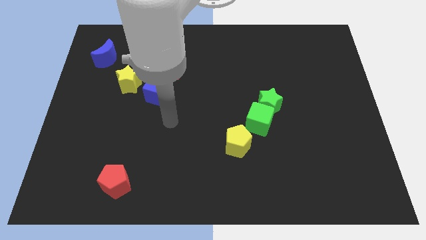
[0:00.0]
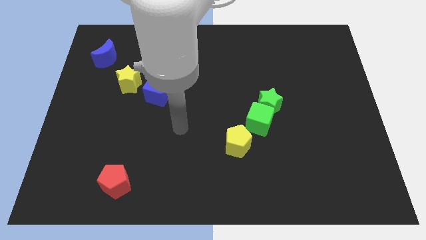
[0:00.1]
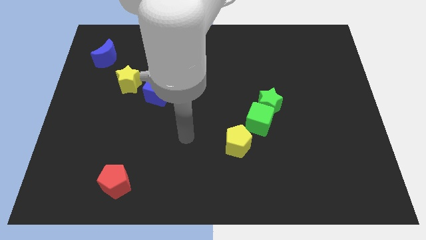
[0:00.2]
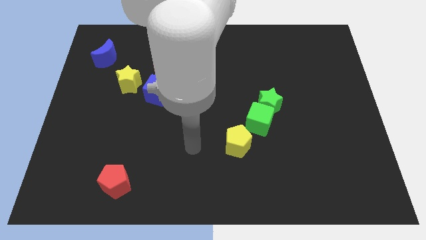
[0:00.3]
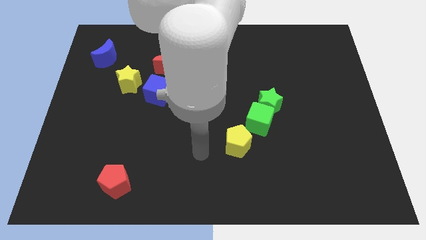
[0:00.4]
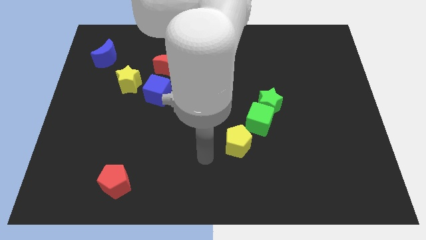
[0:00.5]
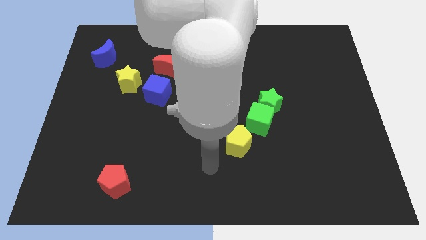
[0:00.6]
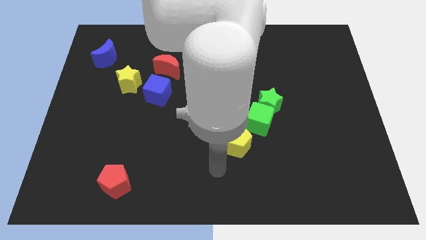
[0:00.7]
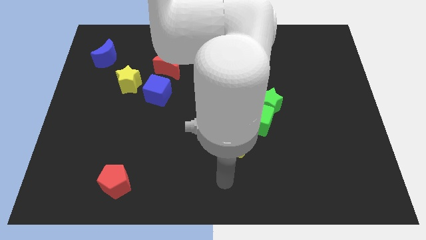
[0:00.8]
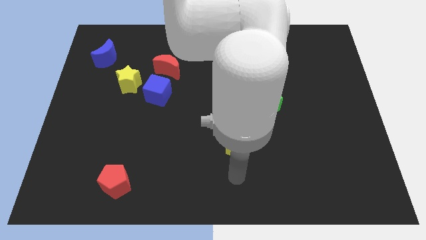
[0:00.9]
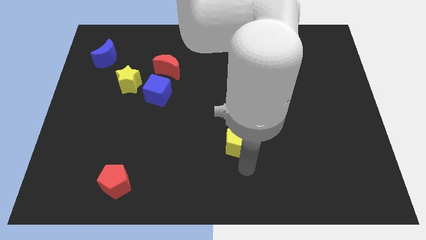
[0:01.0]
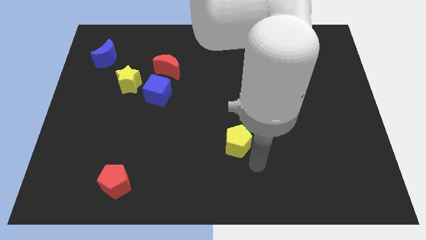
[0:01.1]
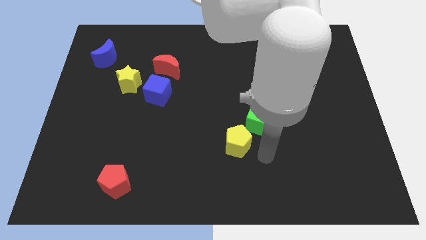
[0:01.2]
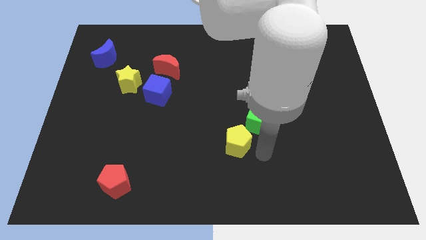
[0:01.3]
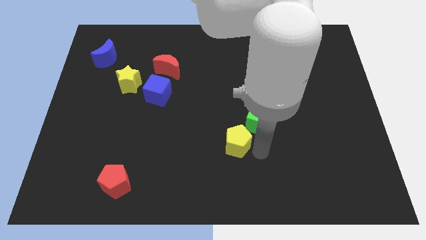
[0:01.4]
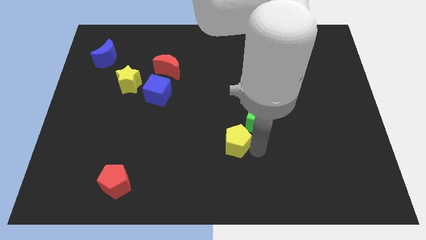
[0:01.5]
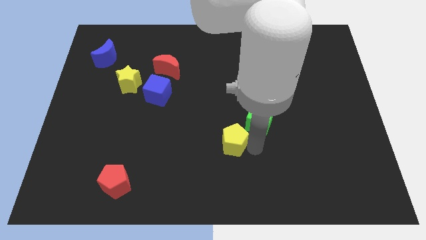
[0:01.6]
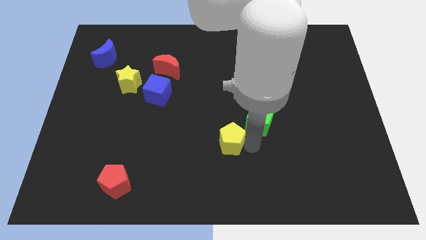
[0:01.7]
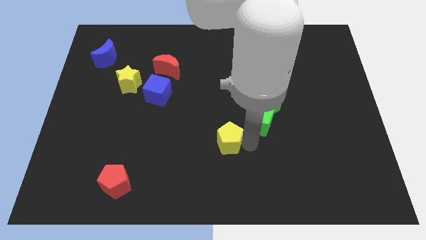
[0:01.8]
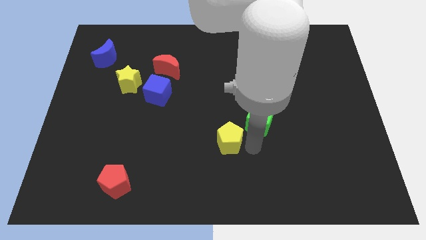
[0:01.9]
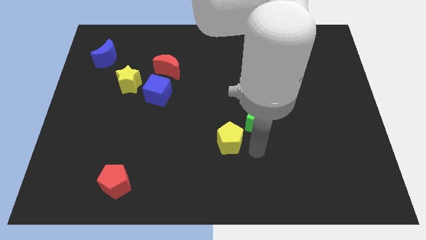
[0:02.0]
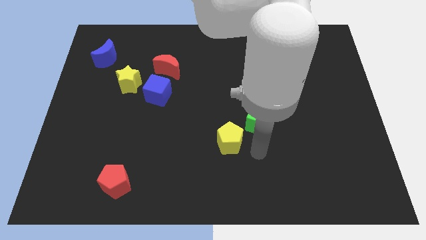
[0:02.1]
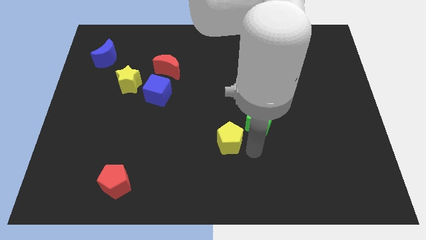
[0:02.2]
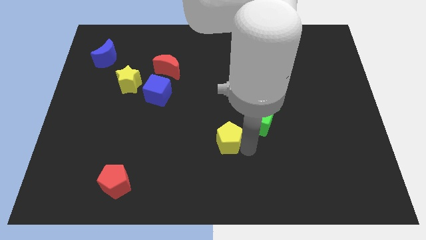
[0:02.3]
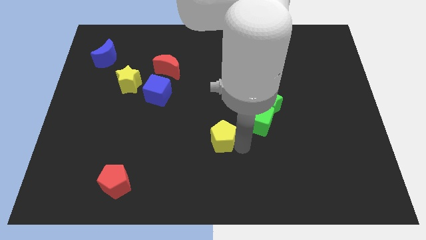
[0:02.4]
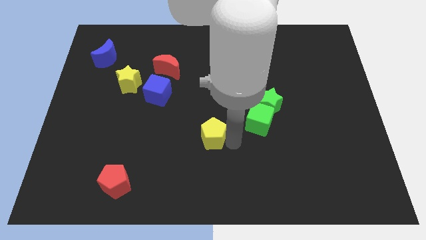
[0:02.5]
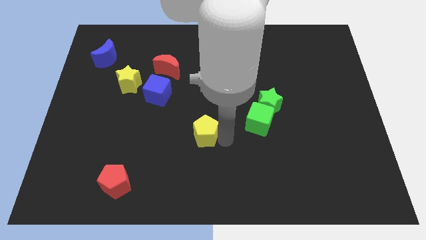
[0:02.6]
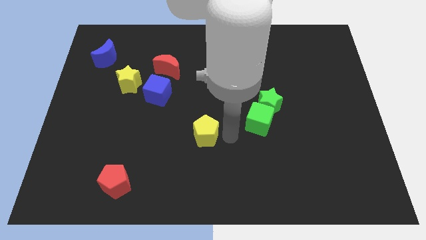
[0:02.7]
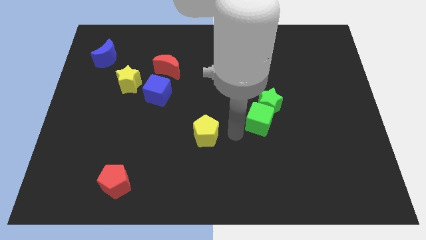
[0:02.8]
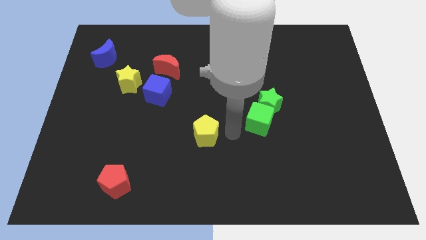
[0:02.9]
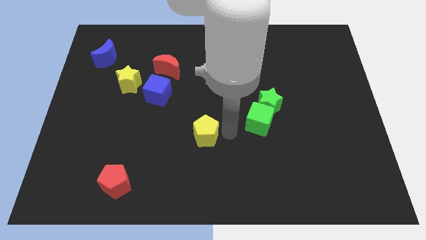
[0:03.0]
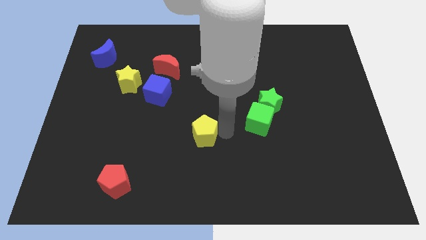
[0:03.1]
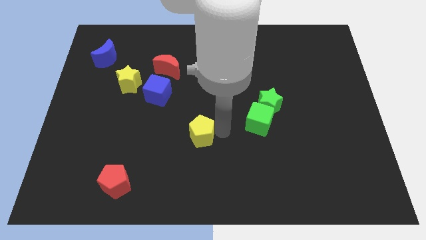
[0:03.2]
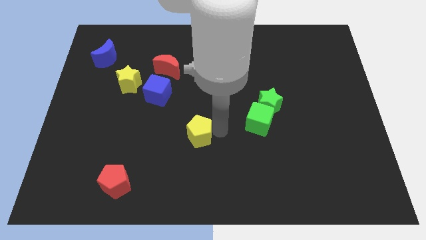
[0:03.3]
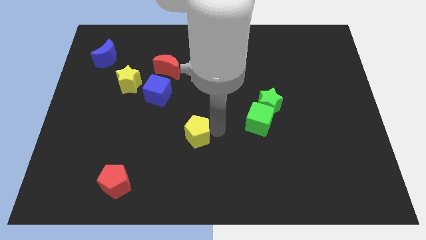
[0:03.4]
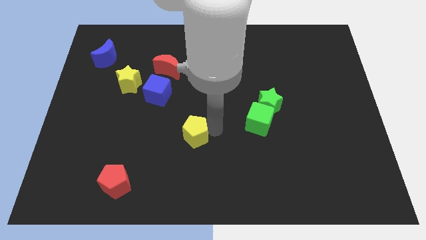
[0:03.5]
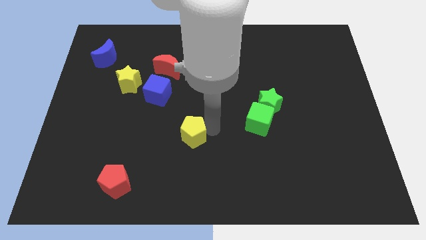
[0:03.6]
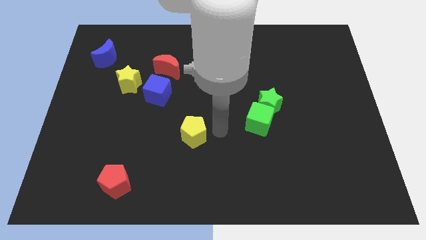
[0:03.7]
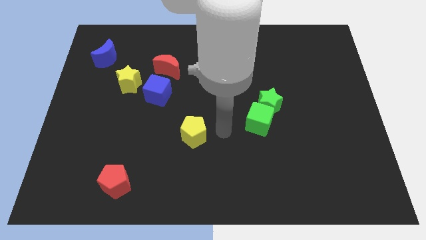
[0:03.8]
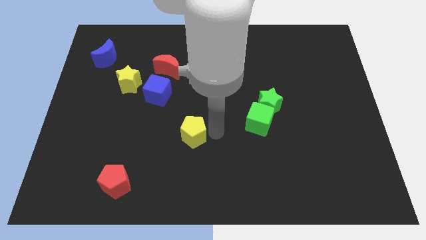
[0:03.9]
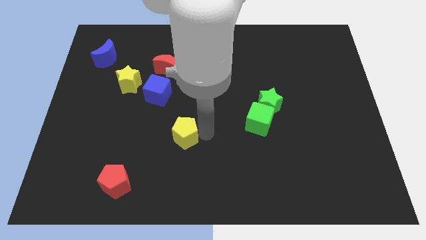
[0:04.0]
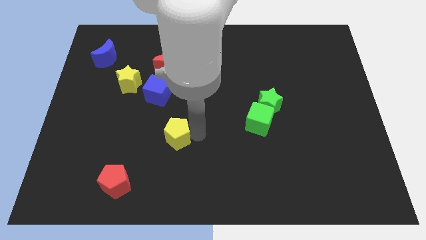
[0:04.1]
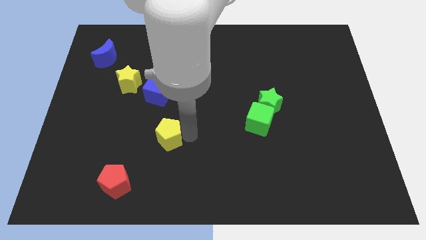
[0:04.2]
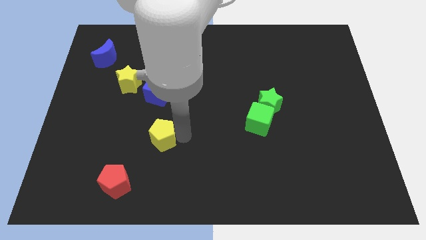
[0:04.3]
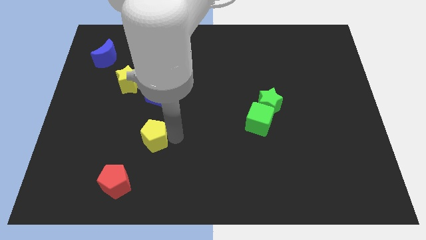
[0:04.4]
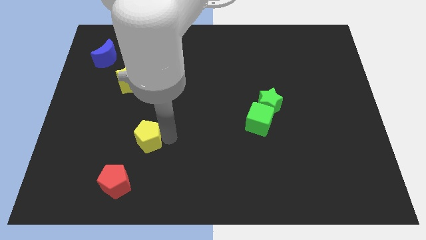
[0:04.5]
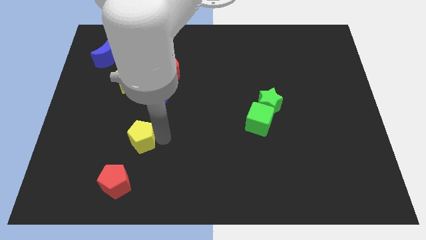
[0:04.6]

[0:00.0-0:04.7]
move the yellow pentagon left

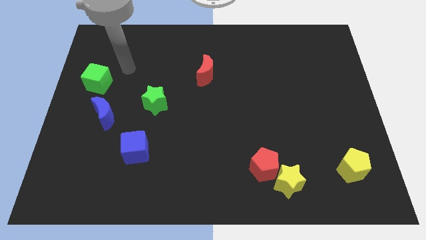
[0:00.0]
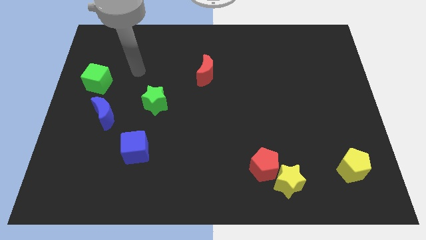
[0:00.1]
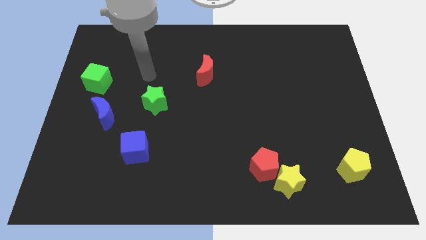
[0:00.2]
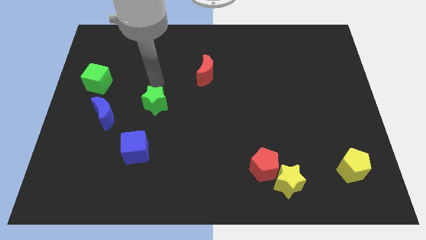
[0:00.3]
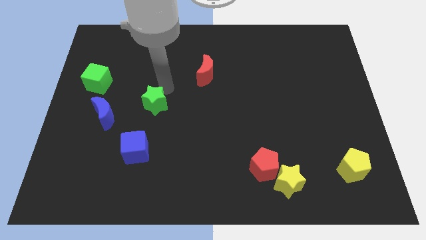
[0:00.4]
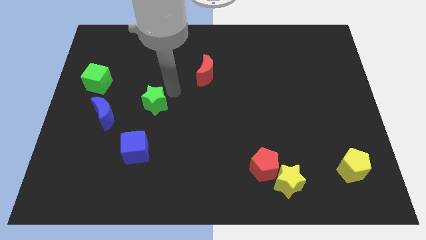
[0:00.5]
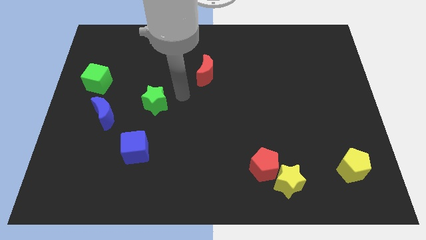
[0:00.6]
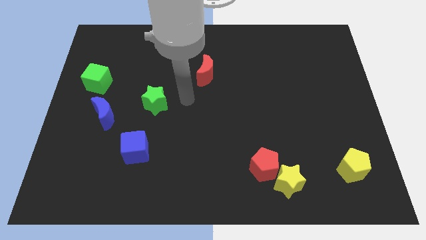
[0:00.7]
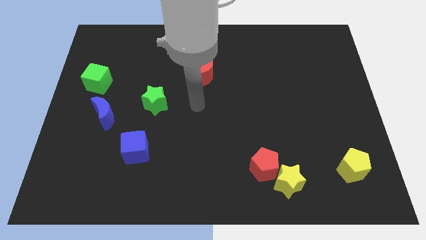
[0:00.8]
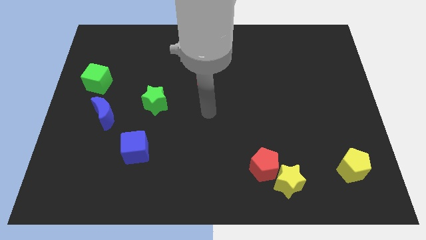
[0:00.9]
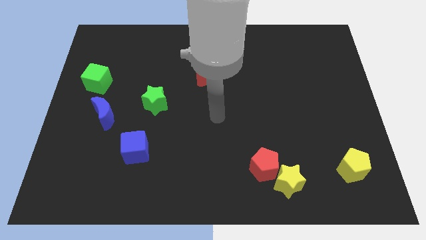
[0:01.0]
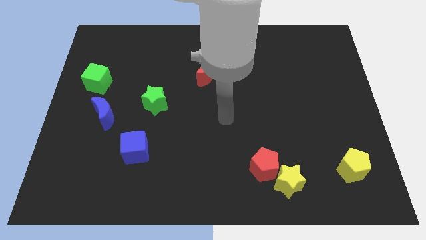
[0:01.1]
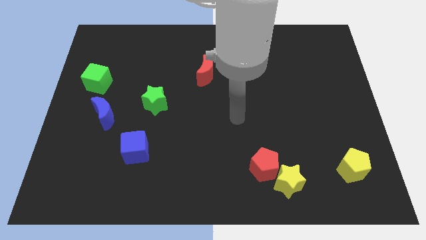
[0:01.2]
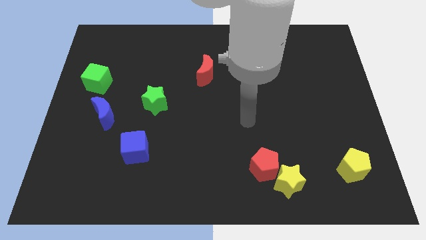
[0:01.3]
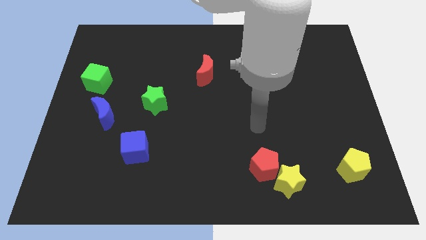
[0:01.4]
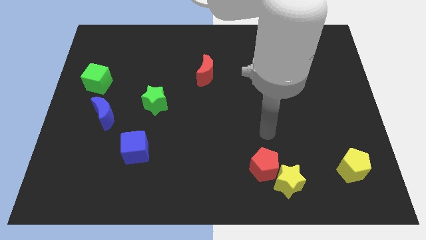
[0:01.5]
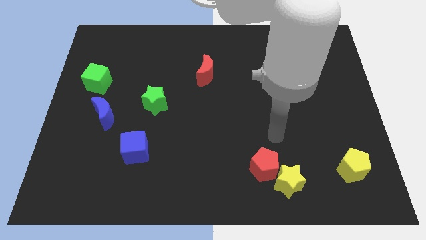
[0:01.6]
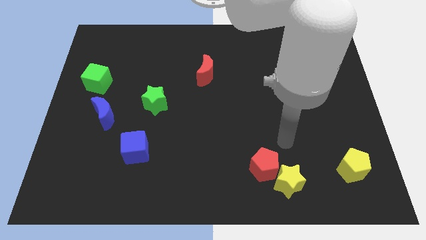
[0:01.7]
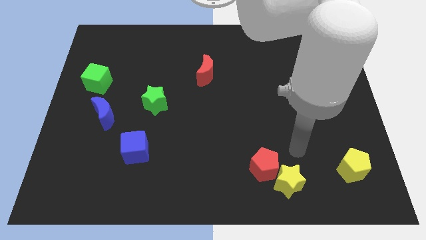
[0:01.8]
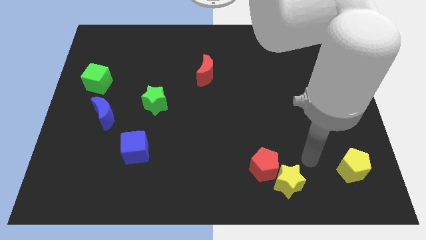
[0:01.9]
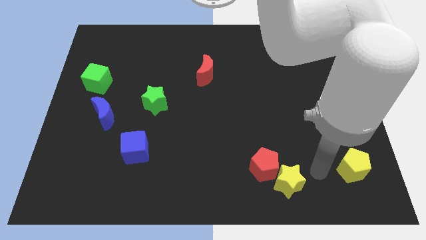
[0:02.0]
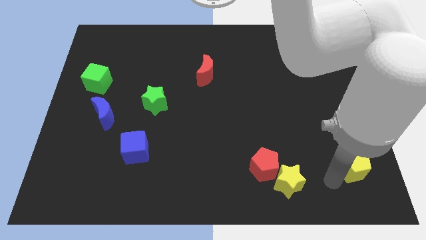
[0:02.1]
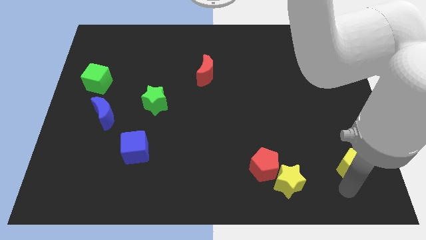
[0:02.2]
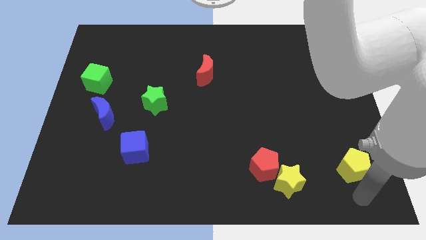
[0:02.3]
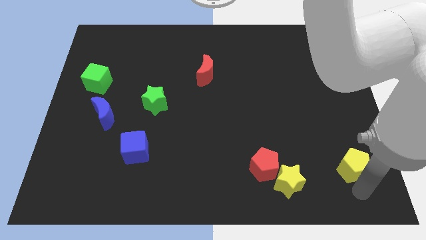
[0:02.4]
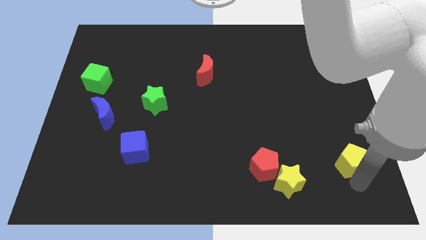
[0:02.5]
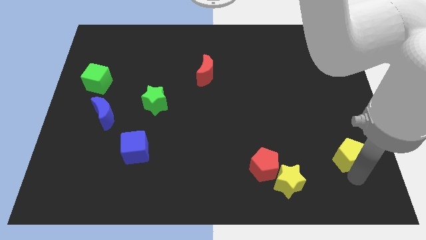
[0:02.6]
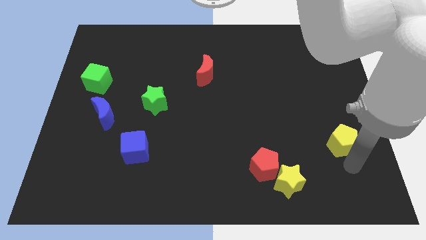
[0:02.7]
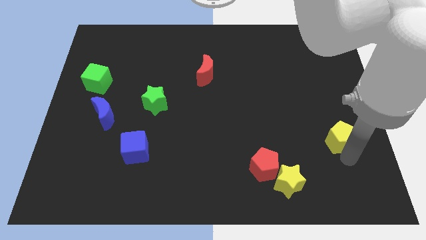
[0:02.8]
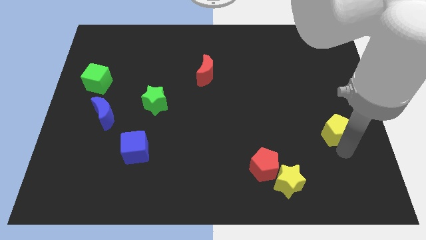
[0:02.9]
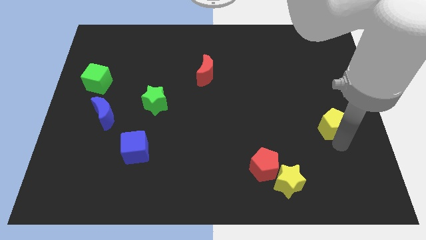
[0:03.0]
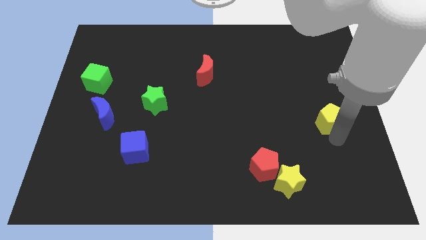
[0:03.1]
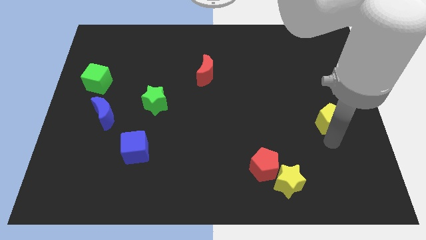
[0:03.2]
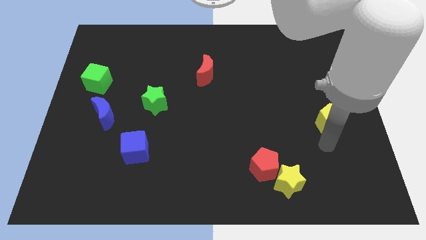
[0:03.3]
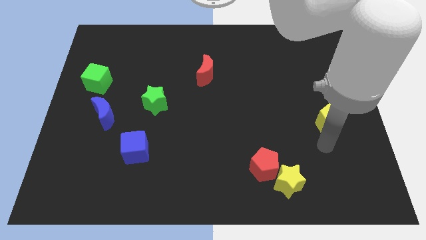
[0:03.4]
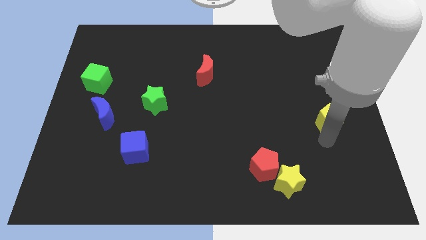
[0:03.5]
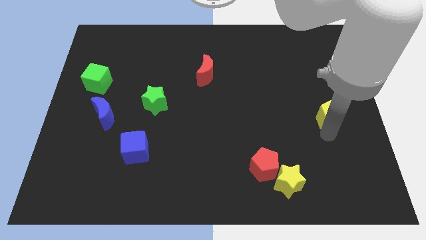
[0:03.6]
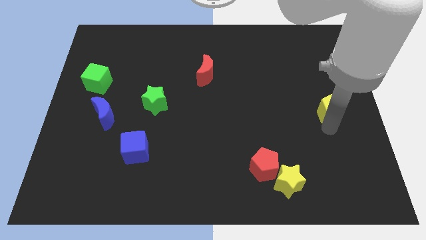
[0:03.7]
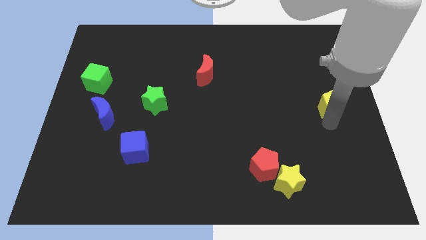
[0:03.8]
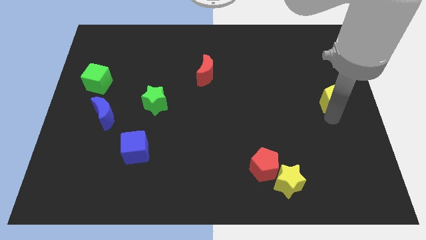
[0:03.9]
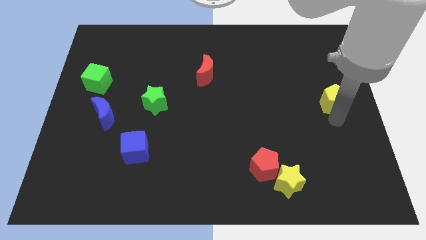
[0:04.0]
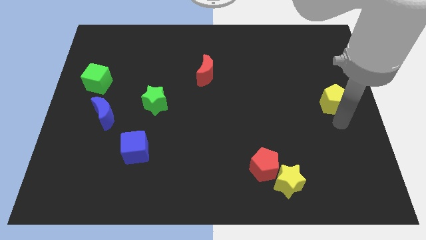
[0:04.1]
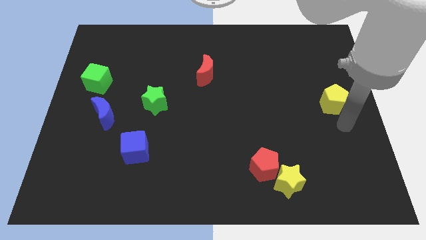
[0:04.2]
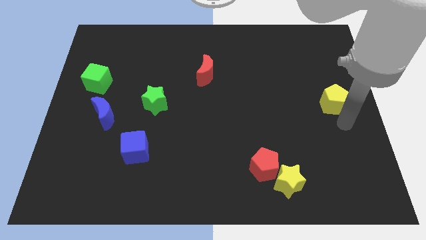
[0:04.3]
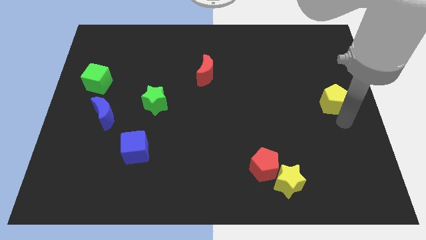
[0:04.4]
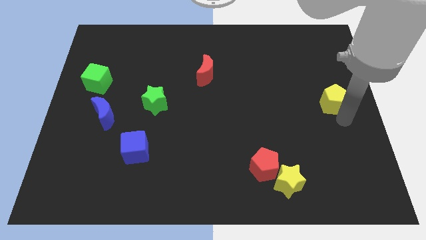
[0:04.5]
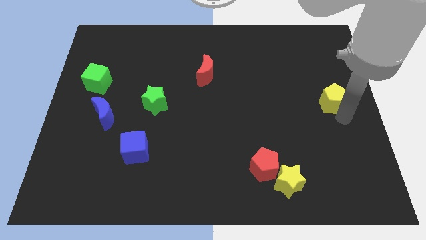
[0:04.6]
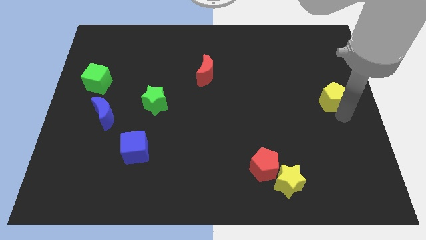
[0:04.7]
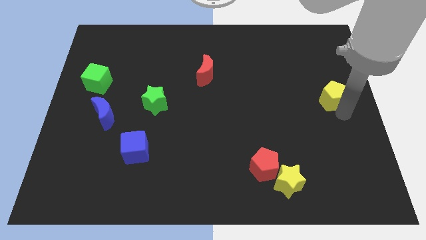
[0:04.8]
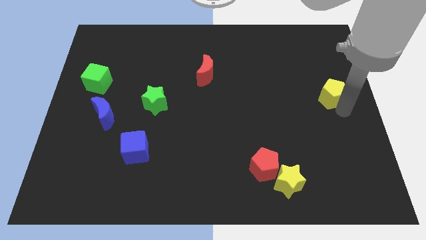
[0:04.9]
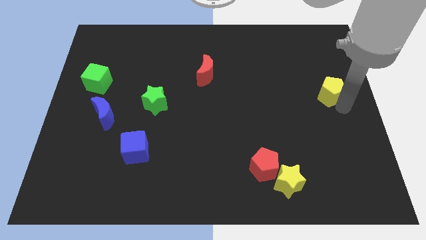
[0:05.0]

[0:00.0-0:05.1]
push the yellow pentagon upwards
